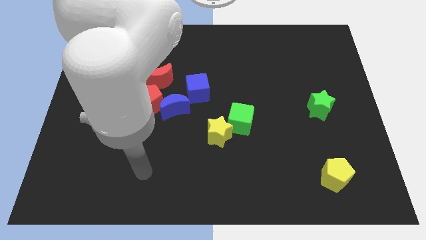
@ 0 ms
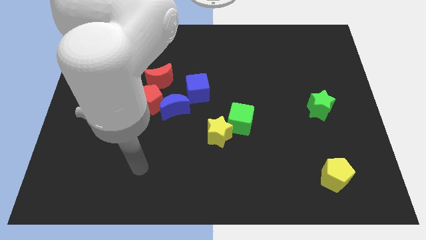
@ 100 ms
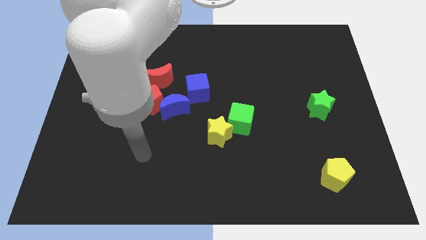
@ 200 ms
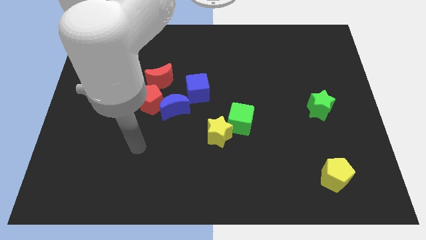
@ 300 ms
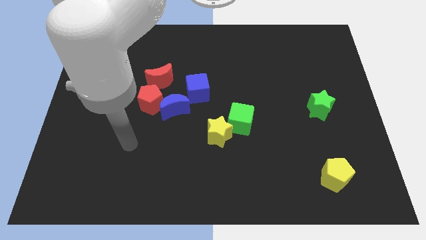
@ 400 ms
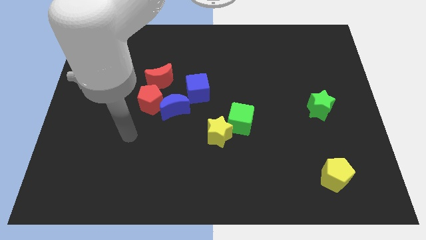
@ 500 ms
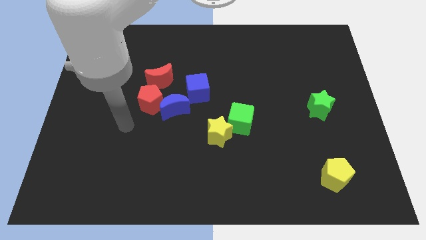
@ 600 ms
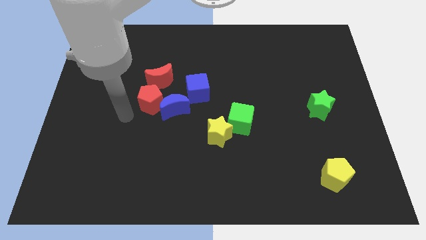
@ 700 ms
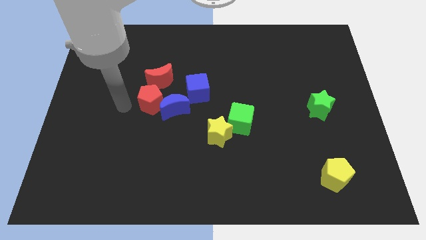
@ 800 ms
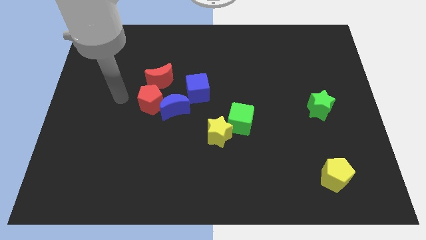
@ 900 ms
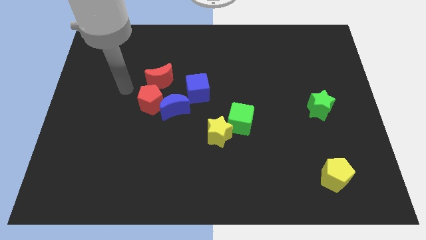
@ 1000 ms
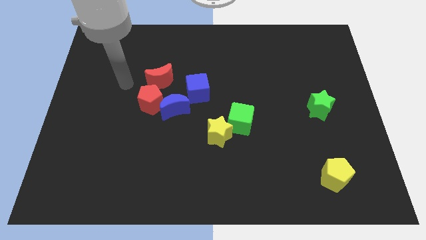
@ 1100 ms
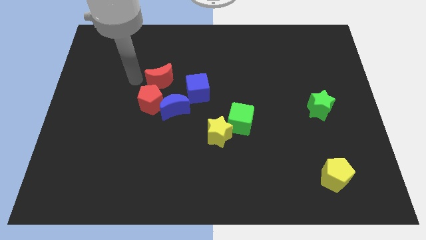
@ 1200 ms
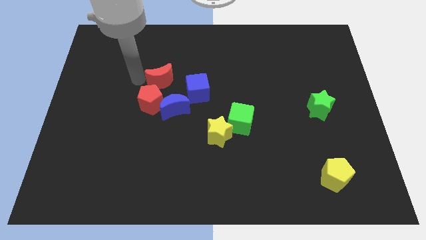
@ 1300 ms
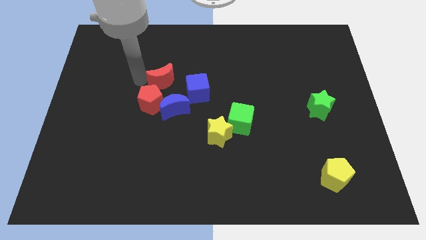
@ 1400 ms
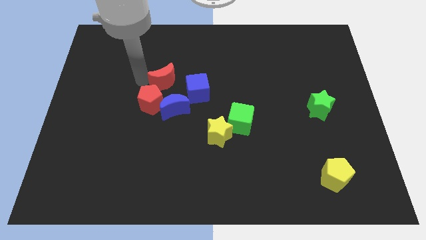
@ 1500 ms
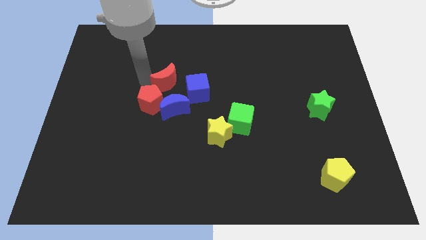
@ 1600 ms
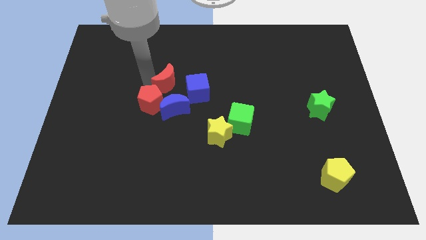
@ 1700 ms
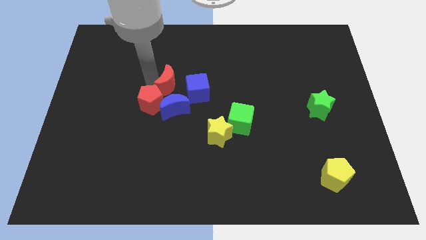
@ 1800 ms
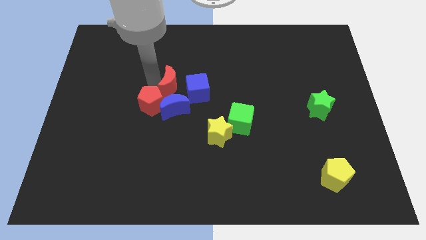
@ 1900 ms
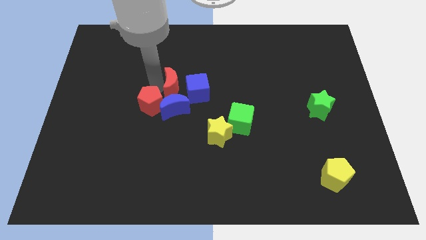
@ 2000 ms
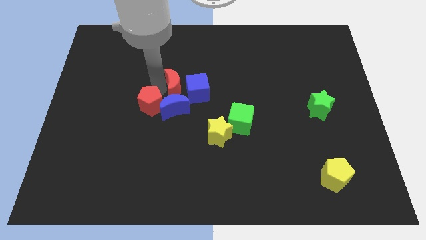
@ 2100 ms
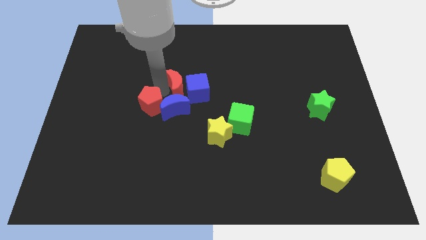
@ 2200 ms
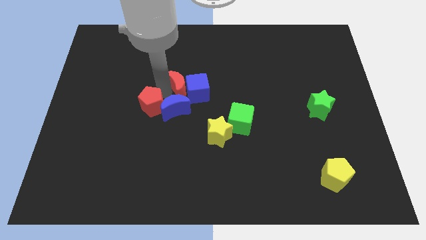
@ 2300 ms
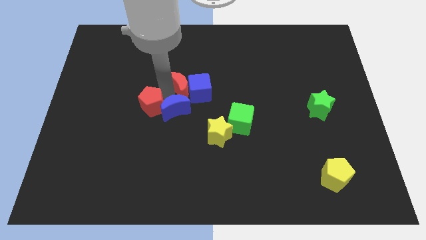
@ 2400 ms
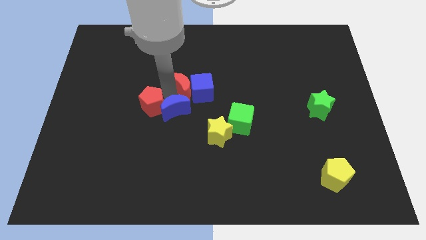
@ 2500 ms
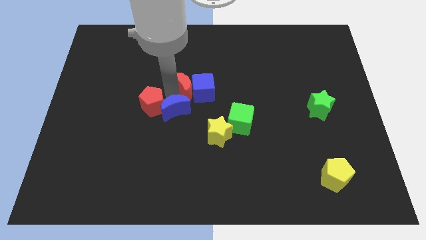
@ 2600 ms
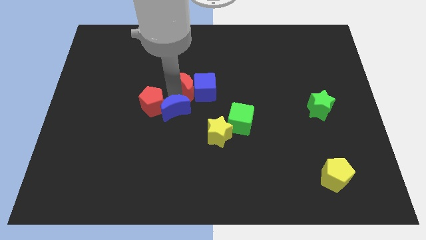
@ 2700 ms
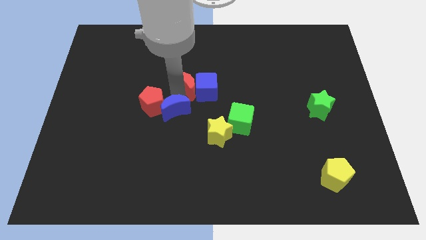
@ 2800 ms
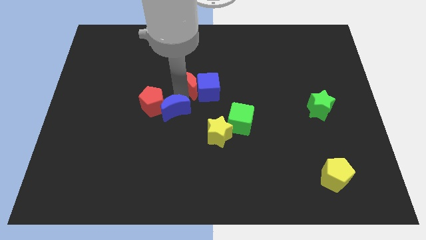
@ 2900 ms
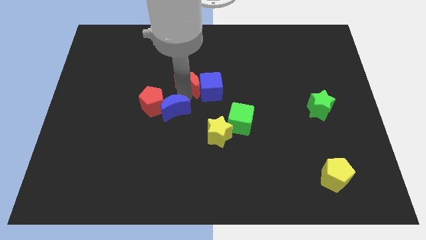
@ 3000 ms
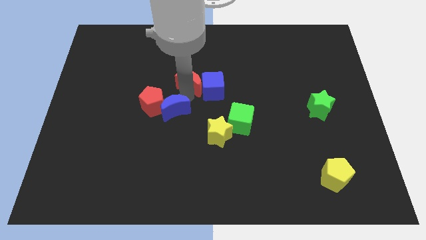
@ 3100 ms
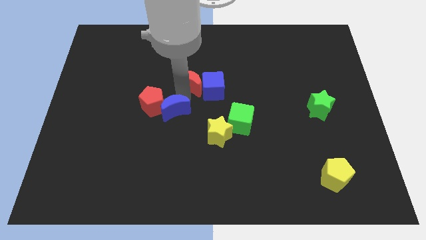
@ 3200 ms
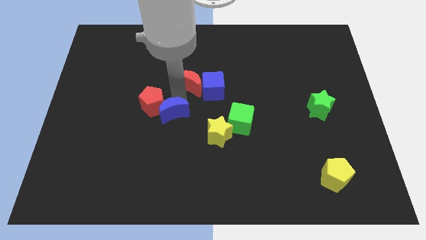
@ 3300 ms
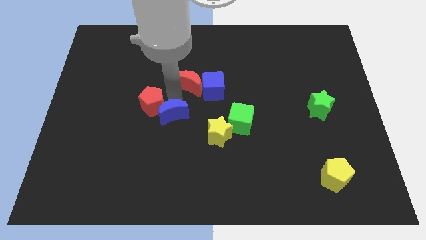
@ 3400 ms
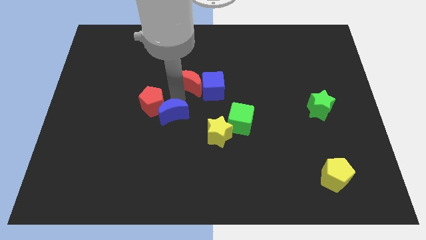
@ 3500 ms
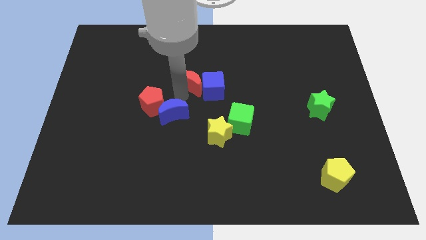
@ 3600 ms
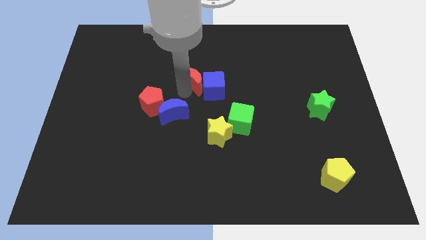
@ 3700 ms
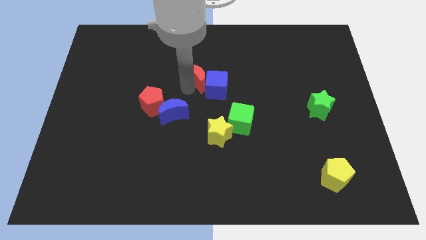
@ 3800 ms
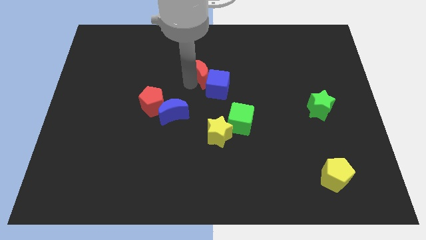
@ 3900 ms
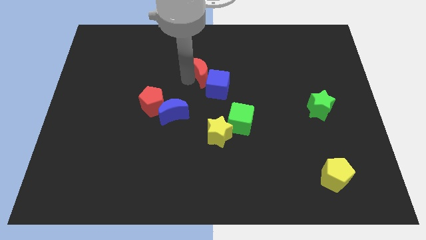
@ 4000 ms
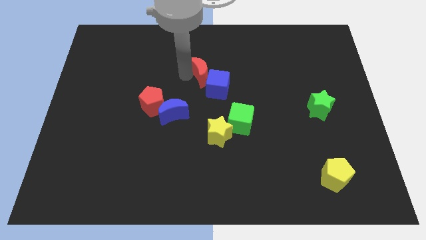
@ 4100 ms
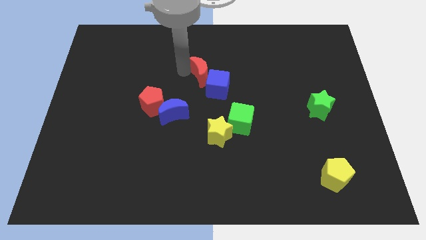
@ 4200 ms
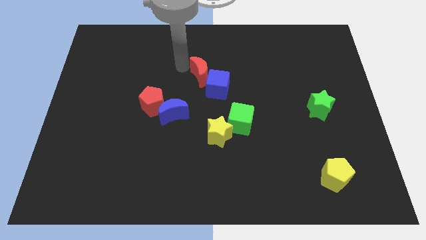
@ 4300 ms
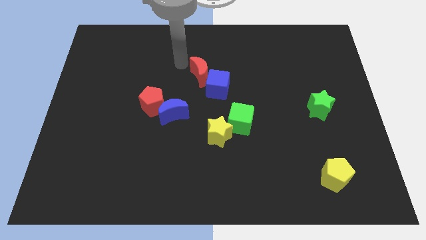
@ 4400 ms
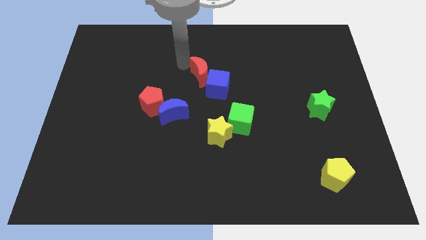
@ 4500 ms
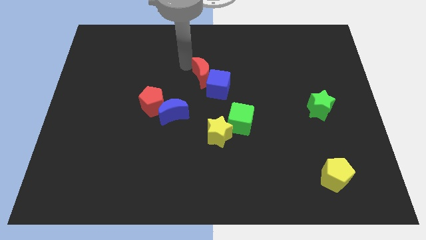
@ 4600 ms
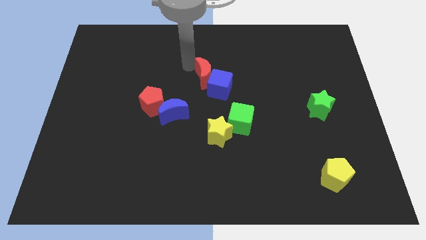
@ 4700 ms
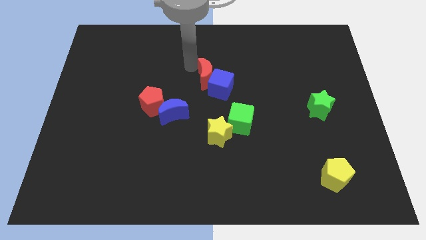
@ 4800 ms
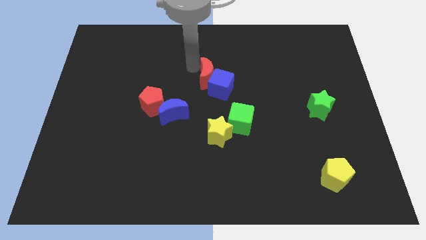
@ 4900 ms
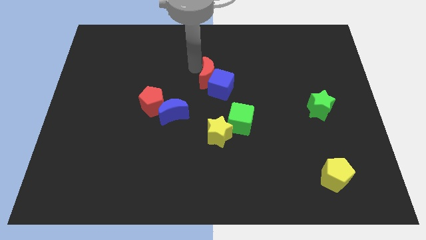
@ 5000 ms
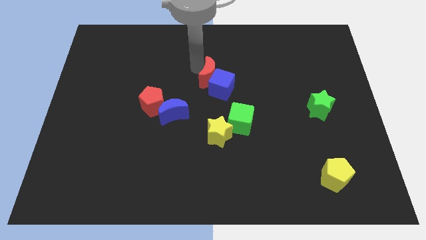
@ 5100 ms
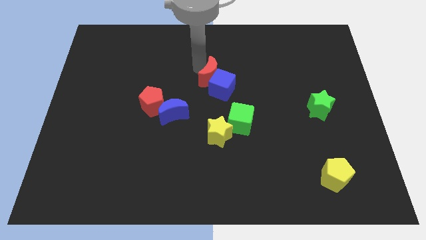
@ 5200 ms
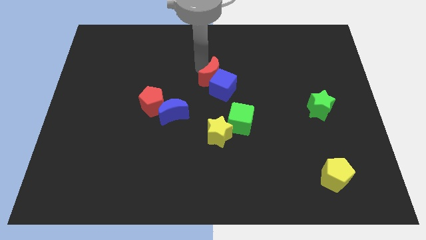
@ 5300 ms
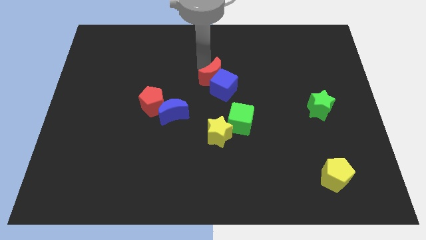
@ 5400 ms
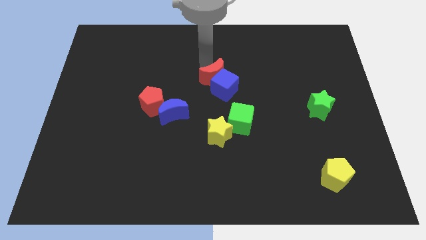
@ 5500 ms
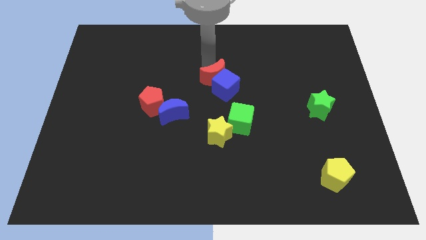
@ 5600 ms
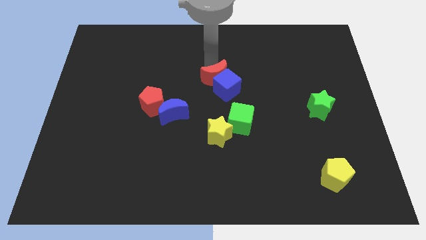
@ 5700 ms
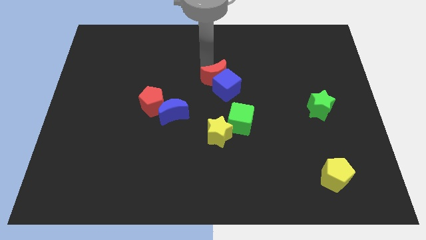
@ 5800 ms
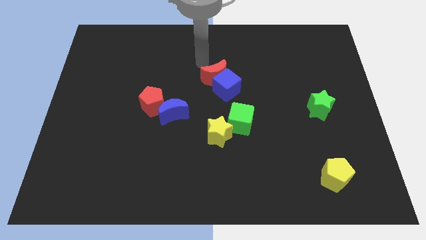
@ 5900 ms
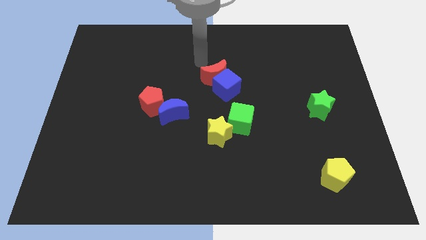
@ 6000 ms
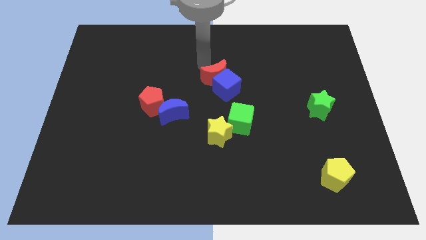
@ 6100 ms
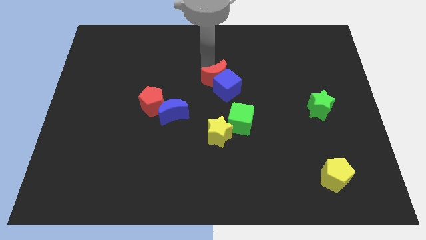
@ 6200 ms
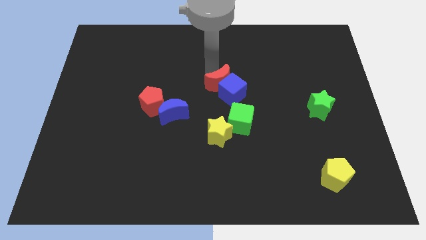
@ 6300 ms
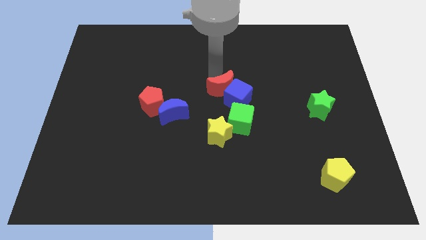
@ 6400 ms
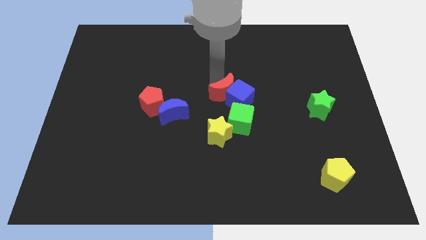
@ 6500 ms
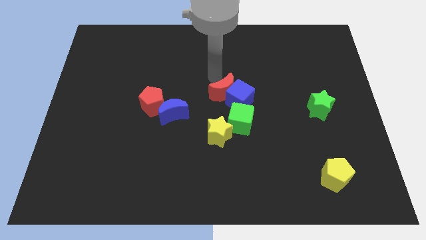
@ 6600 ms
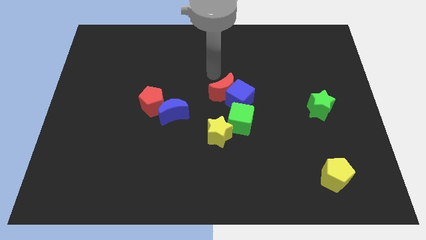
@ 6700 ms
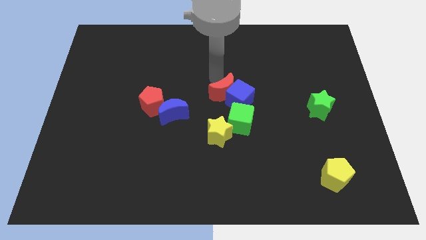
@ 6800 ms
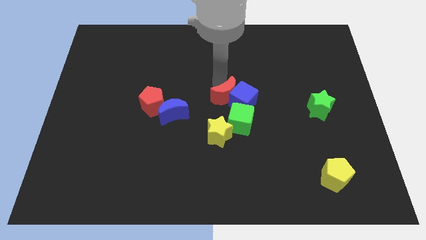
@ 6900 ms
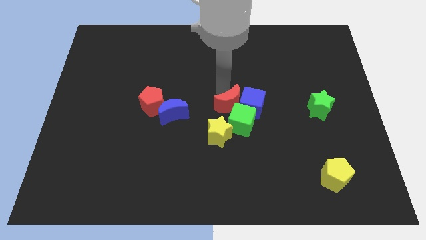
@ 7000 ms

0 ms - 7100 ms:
move the red moon next to the green cube

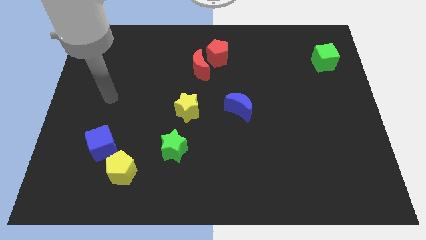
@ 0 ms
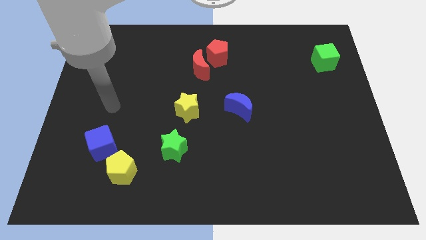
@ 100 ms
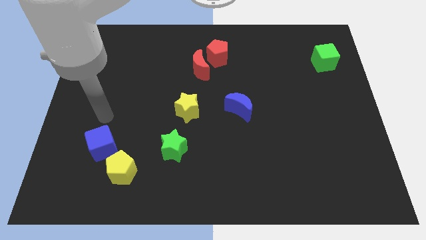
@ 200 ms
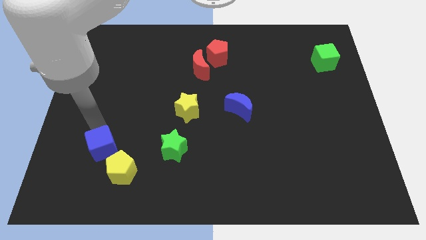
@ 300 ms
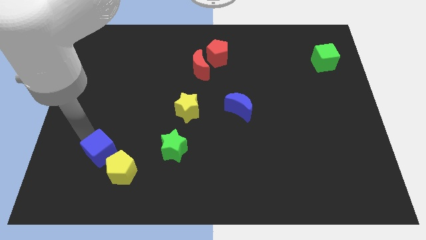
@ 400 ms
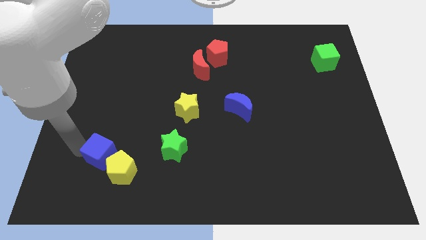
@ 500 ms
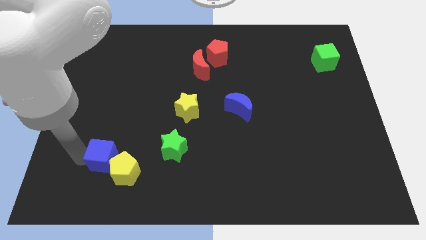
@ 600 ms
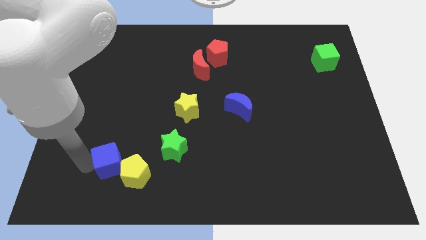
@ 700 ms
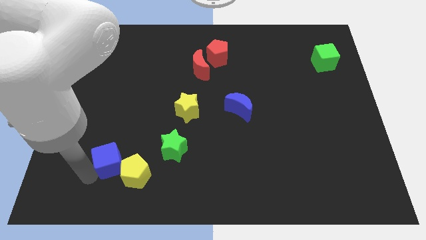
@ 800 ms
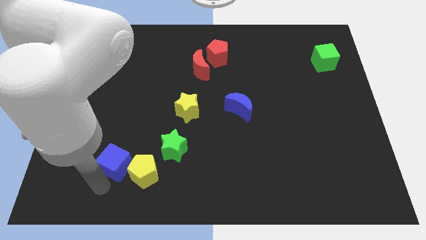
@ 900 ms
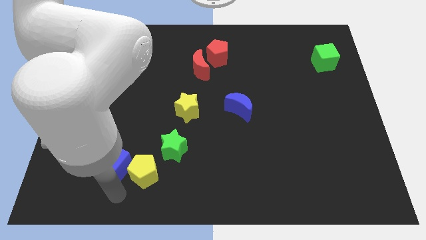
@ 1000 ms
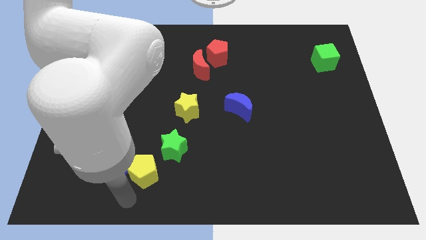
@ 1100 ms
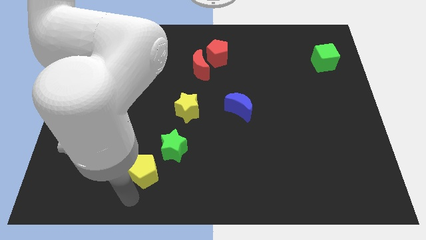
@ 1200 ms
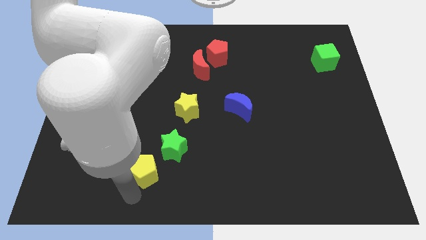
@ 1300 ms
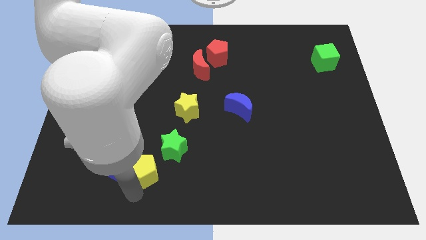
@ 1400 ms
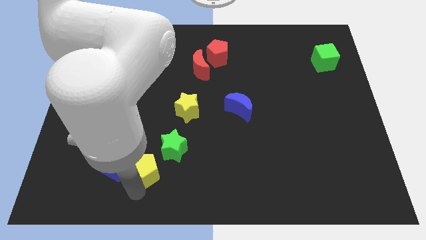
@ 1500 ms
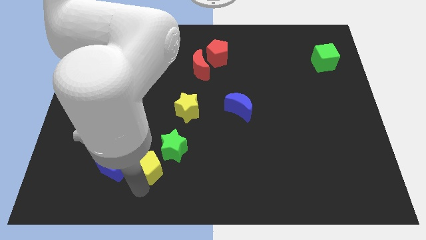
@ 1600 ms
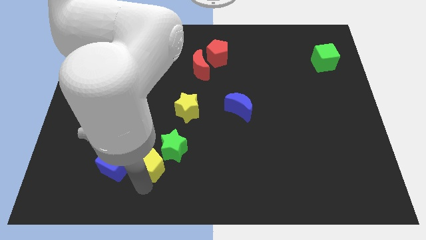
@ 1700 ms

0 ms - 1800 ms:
put the yellow pentagon next to the green star
